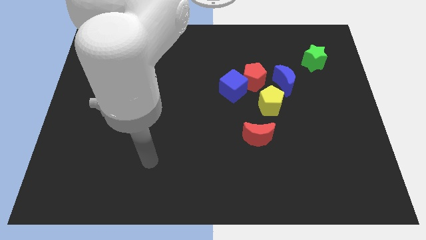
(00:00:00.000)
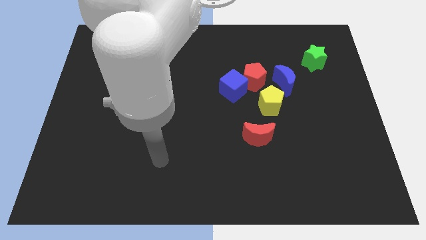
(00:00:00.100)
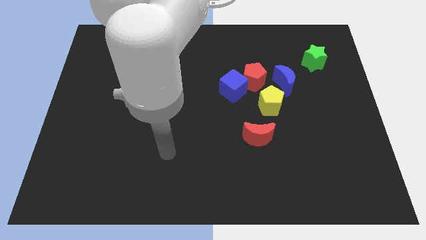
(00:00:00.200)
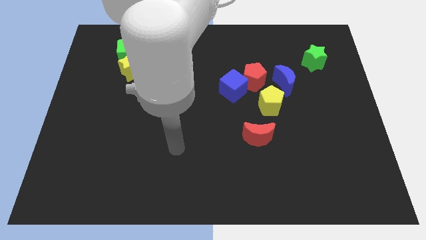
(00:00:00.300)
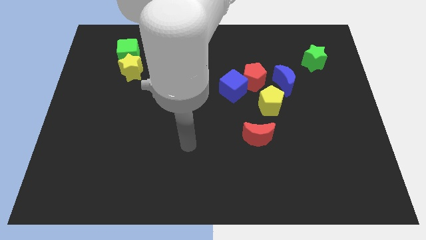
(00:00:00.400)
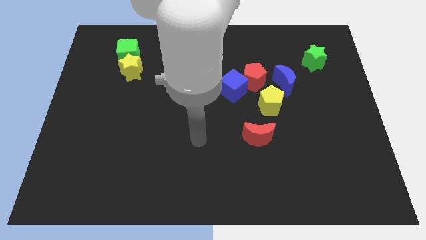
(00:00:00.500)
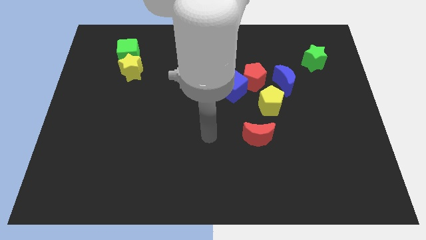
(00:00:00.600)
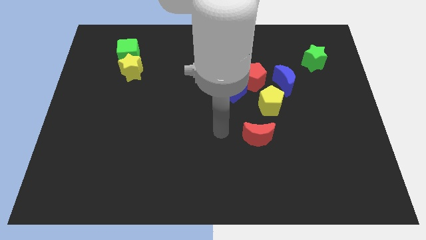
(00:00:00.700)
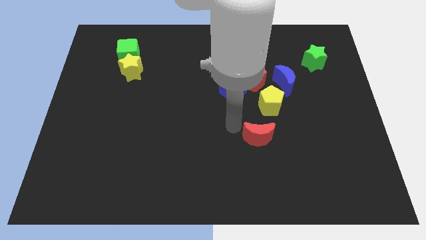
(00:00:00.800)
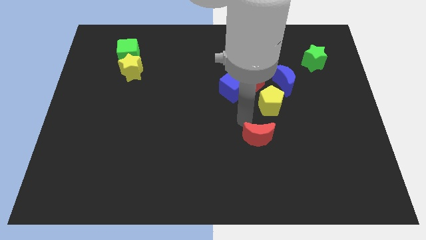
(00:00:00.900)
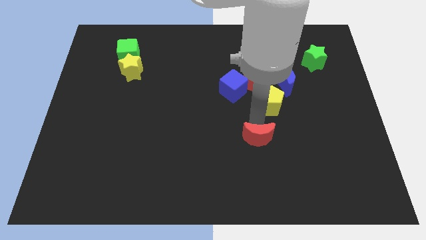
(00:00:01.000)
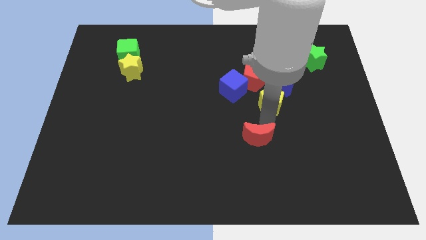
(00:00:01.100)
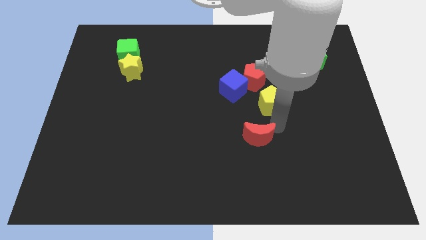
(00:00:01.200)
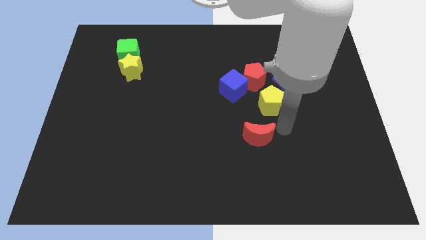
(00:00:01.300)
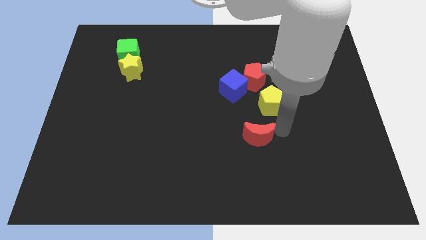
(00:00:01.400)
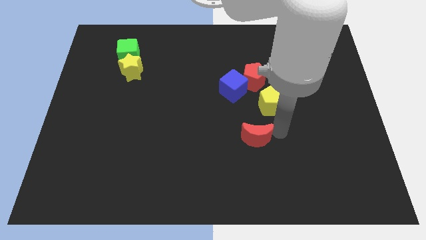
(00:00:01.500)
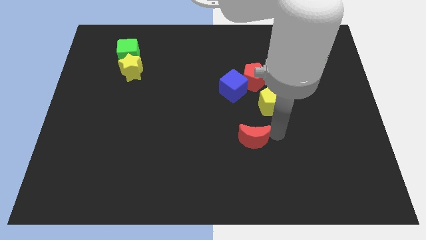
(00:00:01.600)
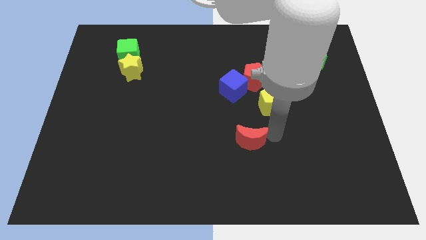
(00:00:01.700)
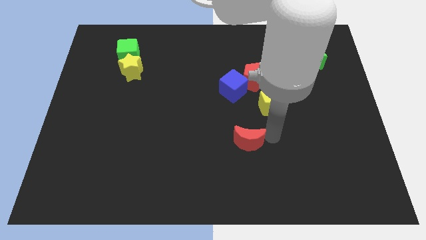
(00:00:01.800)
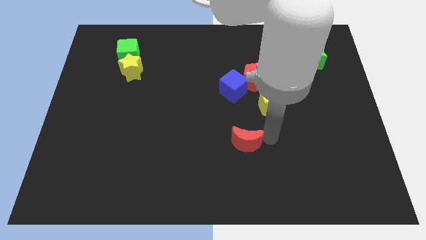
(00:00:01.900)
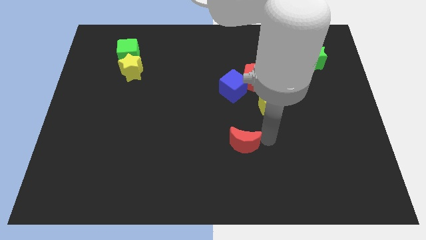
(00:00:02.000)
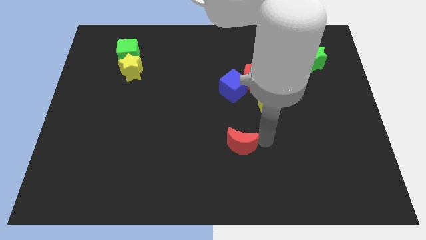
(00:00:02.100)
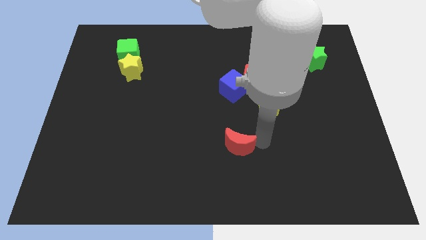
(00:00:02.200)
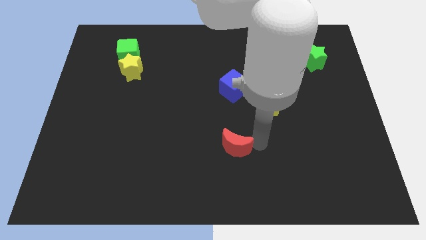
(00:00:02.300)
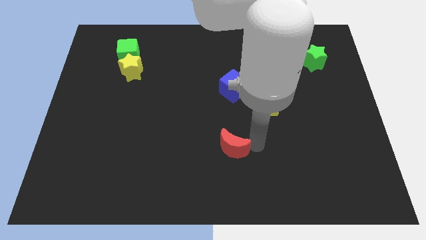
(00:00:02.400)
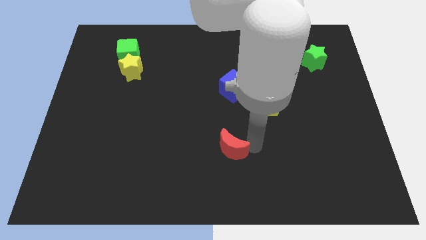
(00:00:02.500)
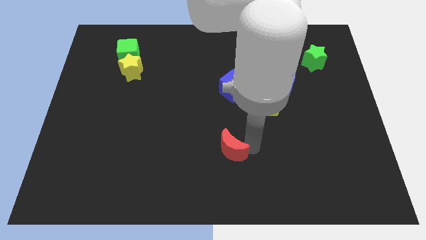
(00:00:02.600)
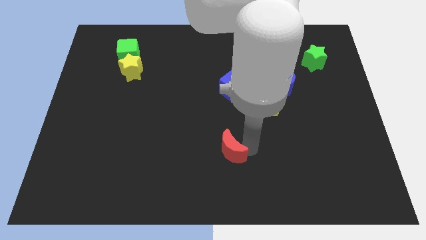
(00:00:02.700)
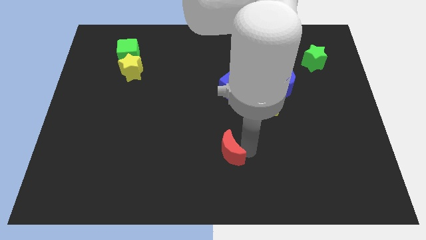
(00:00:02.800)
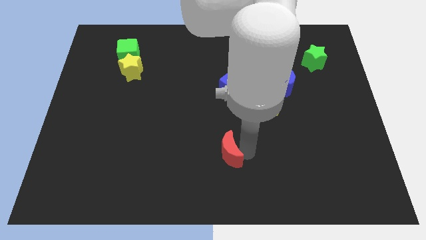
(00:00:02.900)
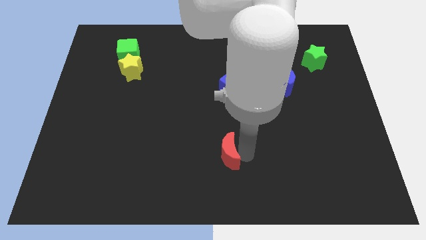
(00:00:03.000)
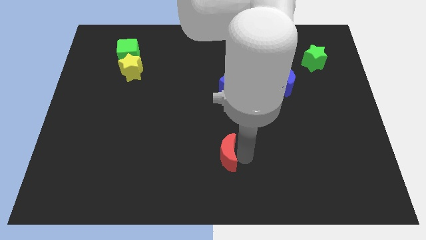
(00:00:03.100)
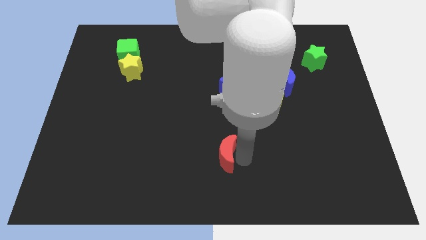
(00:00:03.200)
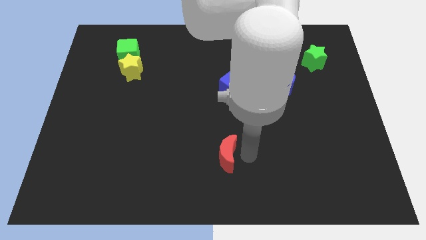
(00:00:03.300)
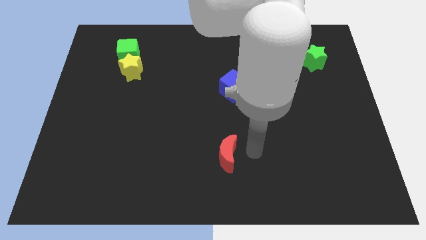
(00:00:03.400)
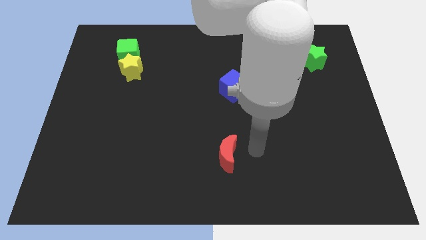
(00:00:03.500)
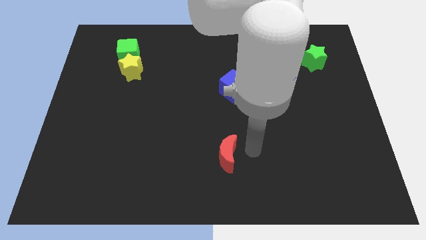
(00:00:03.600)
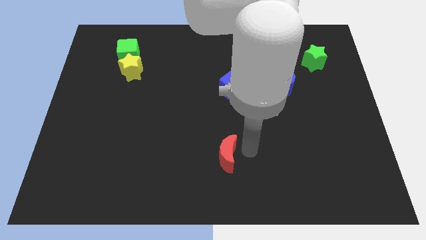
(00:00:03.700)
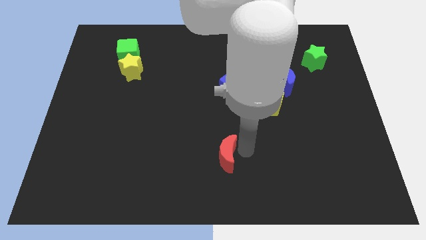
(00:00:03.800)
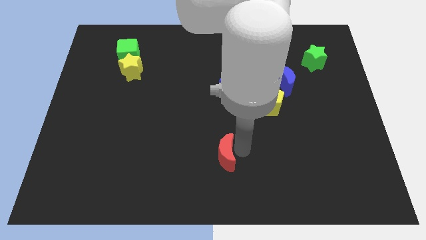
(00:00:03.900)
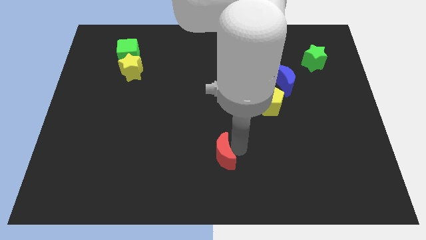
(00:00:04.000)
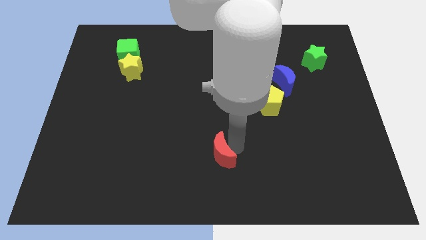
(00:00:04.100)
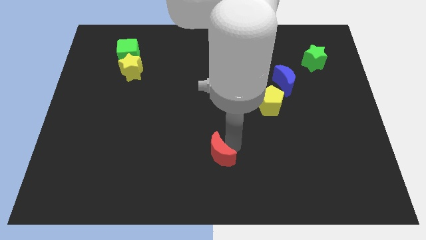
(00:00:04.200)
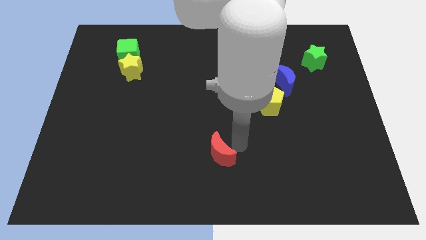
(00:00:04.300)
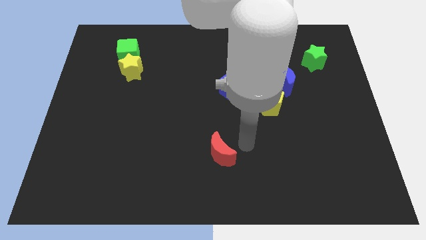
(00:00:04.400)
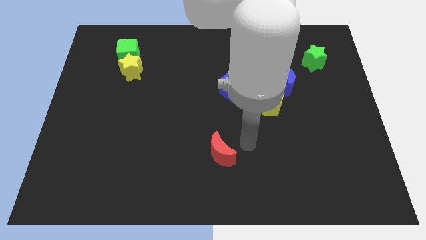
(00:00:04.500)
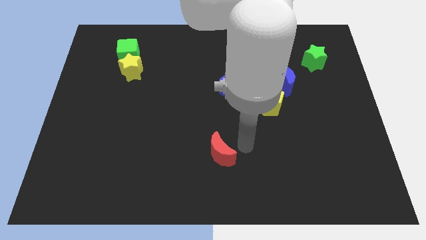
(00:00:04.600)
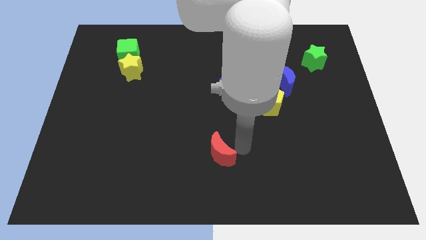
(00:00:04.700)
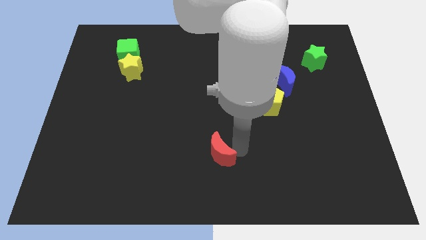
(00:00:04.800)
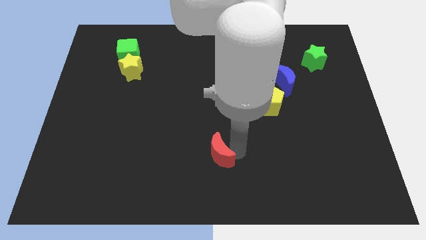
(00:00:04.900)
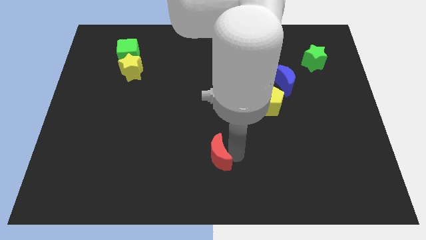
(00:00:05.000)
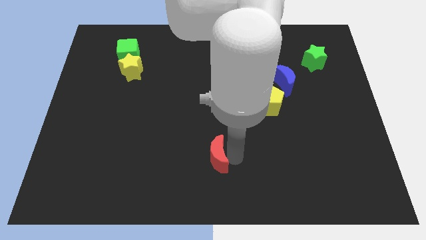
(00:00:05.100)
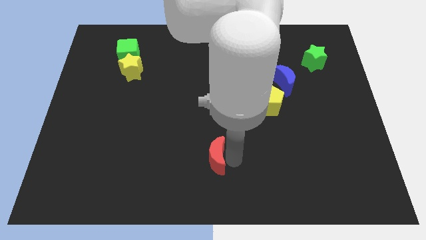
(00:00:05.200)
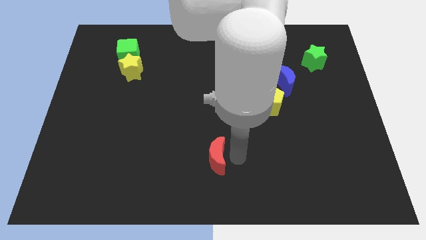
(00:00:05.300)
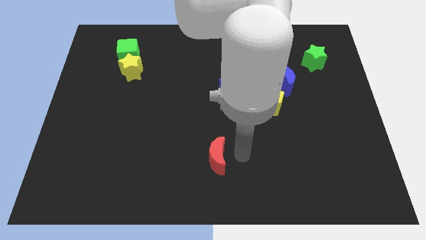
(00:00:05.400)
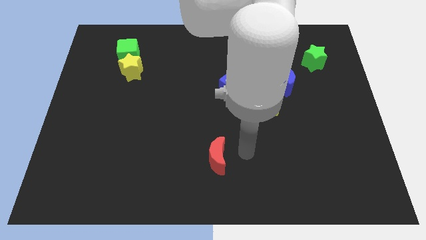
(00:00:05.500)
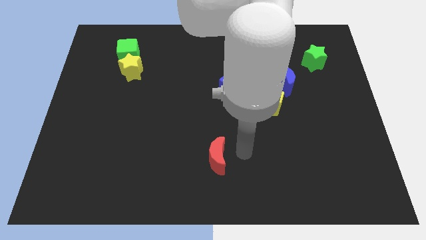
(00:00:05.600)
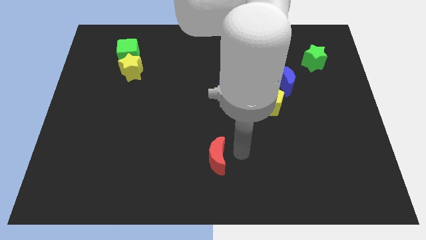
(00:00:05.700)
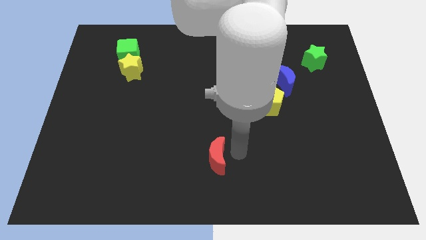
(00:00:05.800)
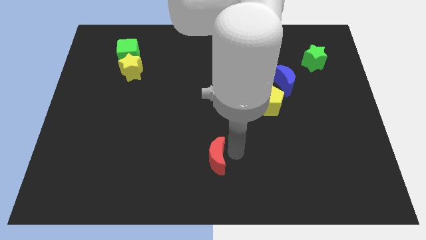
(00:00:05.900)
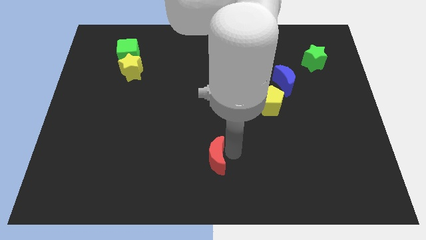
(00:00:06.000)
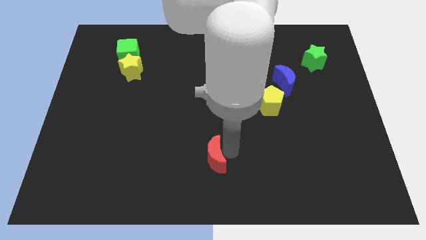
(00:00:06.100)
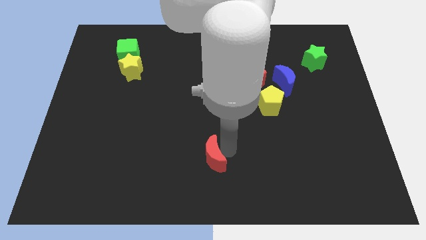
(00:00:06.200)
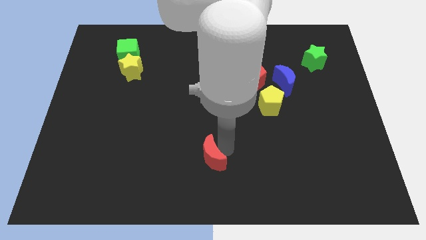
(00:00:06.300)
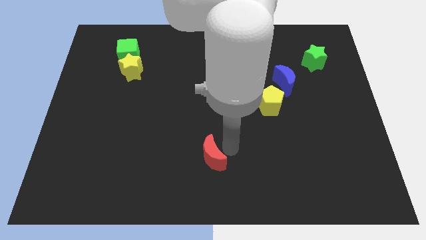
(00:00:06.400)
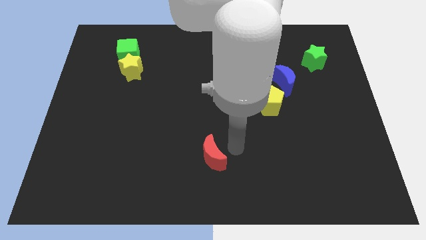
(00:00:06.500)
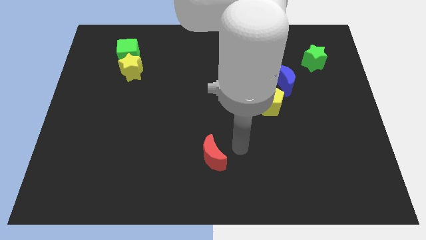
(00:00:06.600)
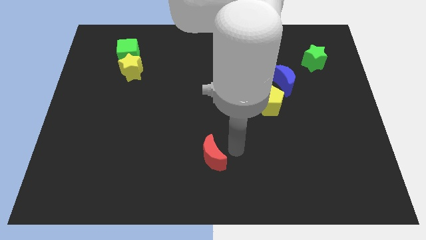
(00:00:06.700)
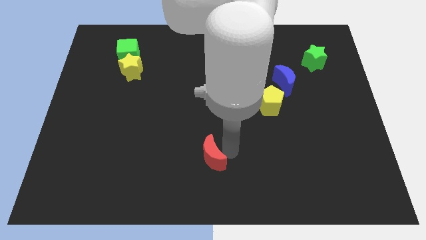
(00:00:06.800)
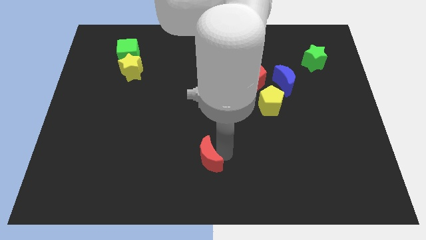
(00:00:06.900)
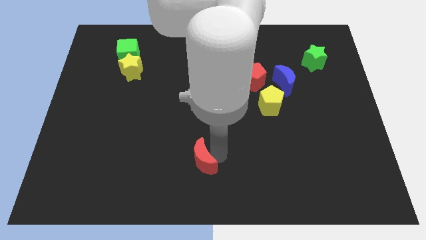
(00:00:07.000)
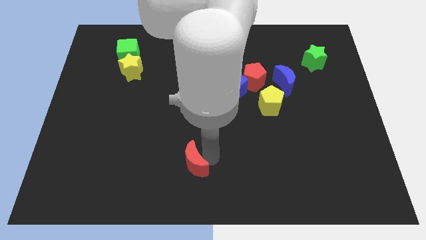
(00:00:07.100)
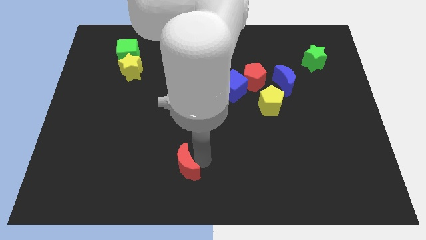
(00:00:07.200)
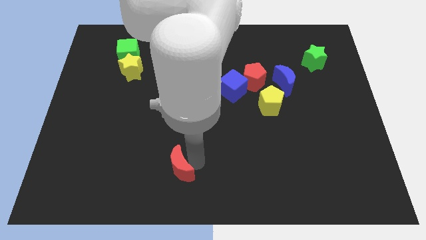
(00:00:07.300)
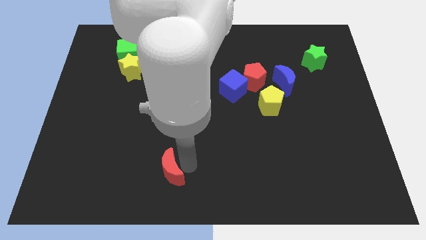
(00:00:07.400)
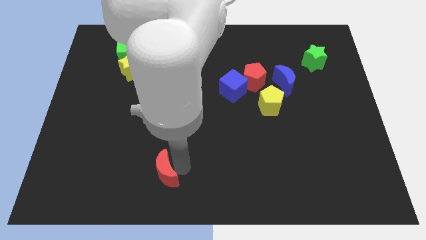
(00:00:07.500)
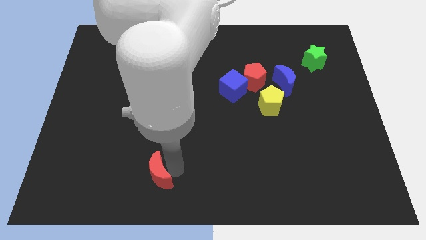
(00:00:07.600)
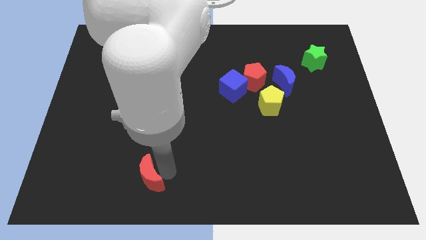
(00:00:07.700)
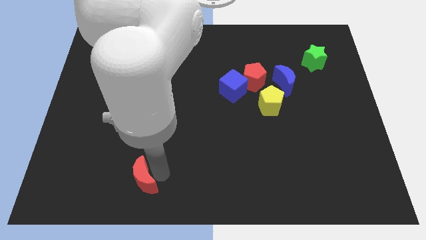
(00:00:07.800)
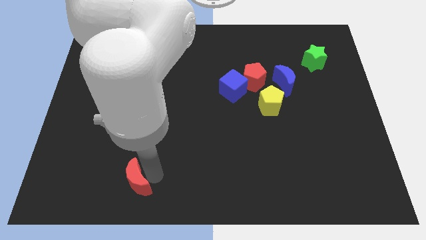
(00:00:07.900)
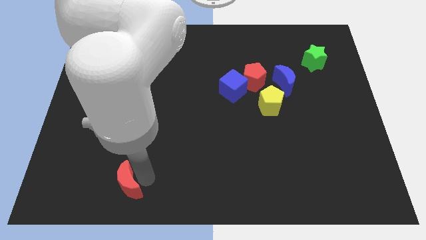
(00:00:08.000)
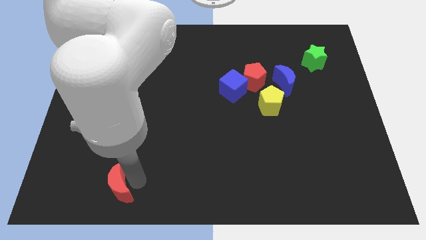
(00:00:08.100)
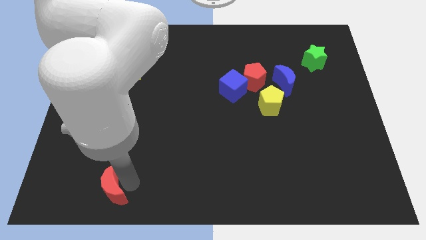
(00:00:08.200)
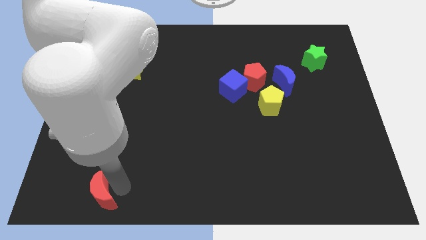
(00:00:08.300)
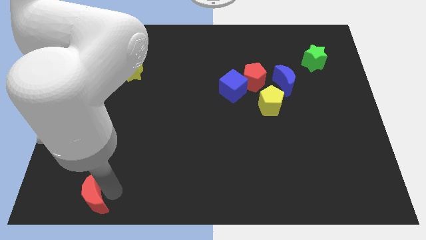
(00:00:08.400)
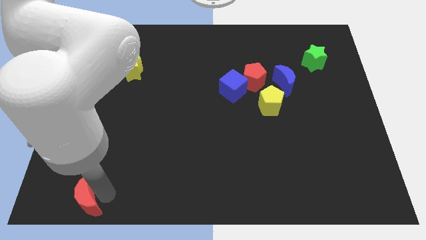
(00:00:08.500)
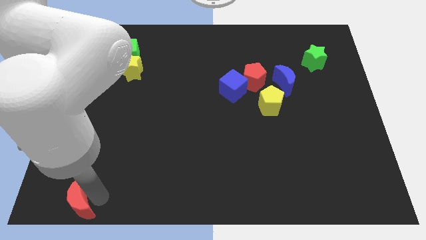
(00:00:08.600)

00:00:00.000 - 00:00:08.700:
put the red moon to the lower left corner
